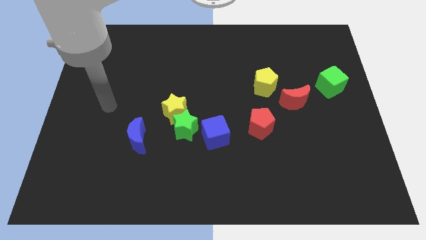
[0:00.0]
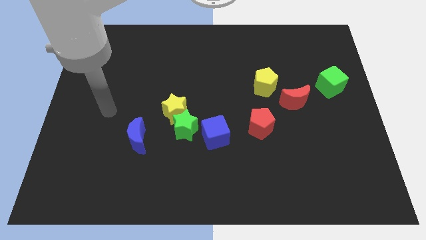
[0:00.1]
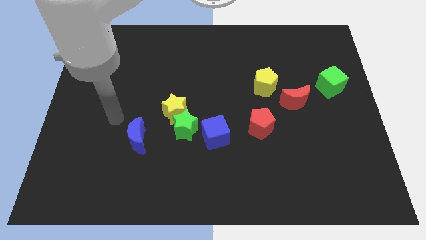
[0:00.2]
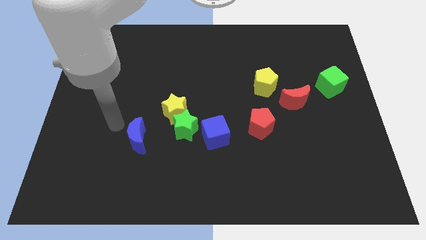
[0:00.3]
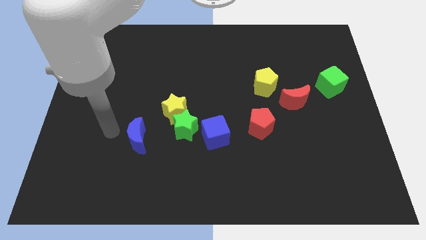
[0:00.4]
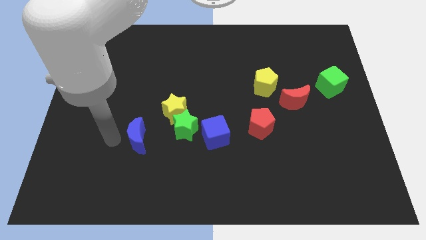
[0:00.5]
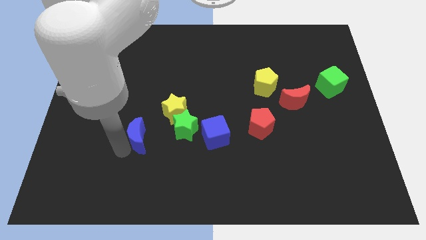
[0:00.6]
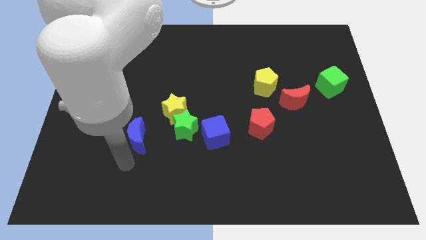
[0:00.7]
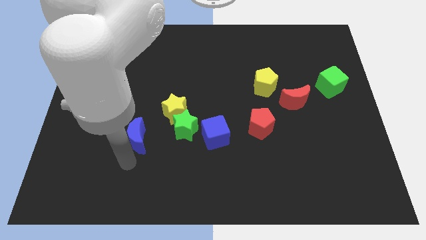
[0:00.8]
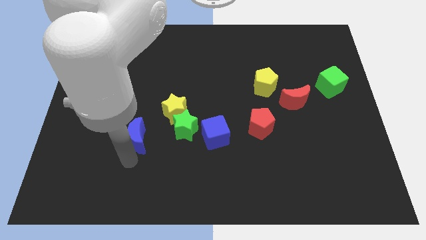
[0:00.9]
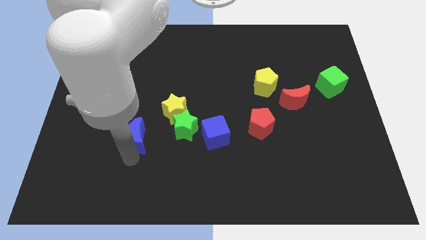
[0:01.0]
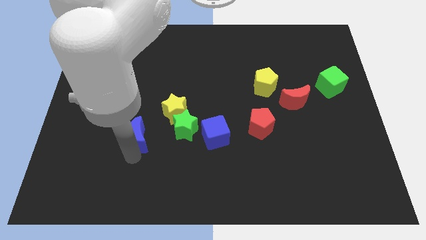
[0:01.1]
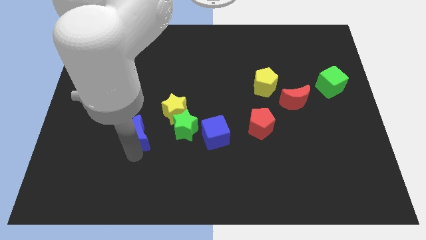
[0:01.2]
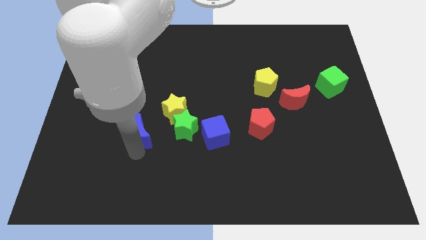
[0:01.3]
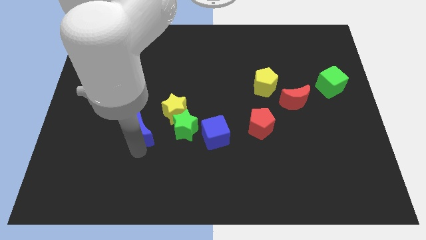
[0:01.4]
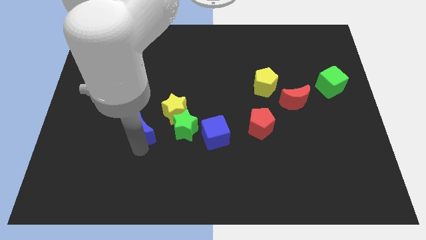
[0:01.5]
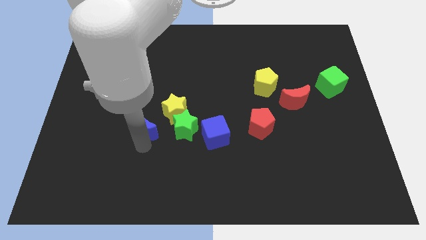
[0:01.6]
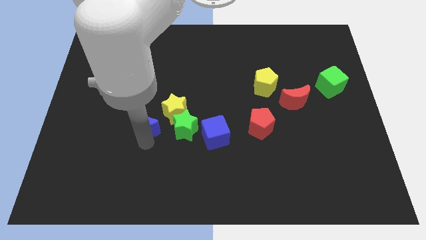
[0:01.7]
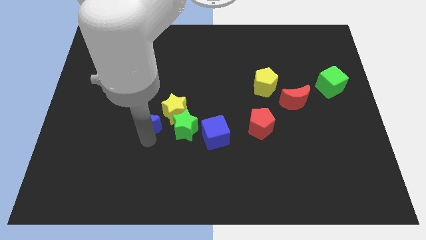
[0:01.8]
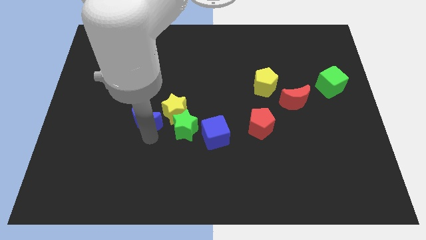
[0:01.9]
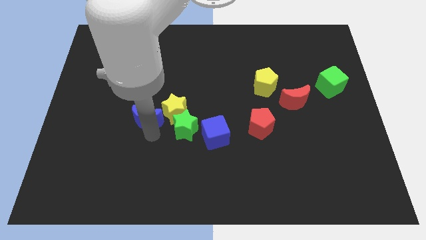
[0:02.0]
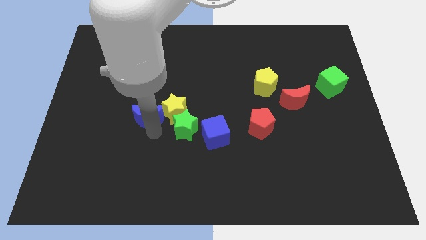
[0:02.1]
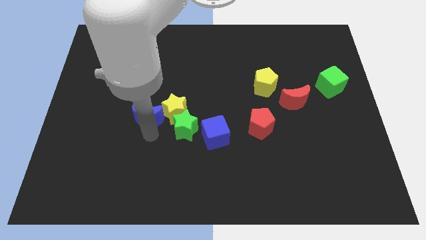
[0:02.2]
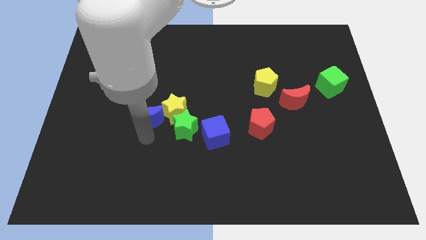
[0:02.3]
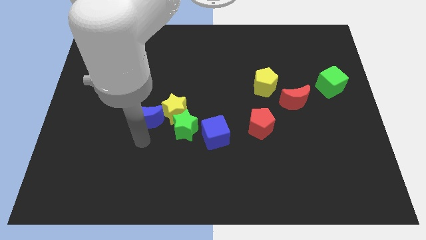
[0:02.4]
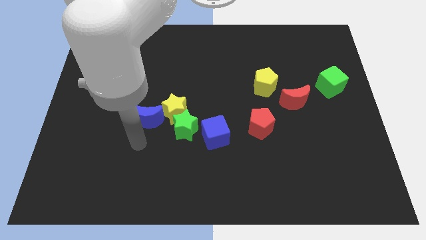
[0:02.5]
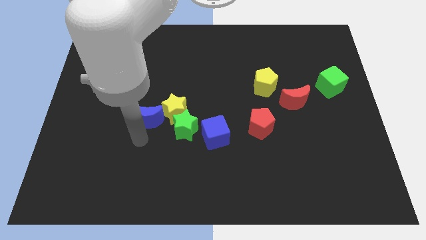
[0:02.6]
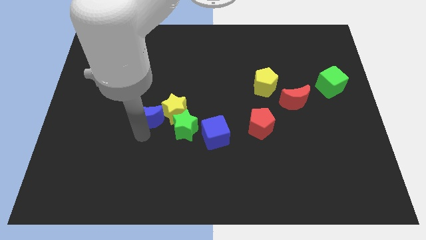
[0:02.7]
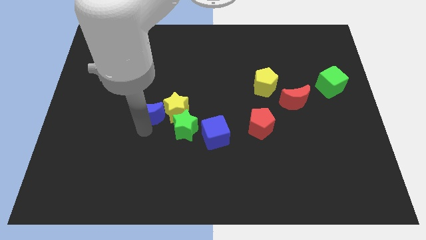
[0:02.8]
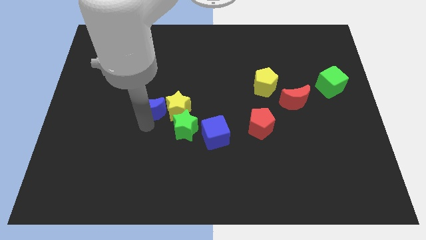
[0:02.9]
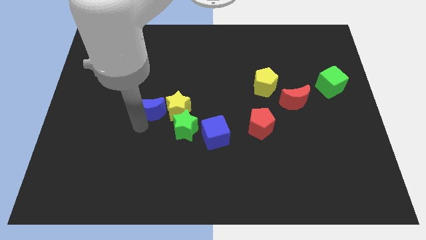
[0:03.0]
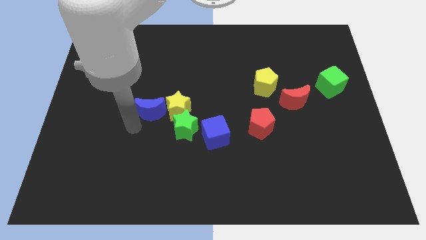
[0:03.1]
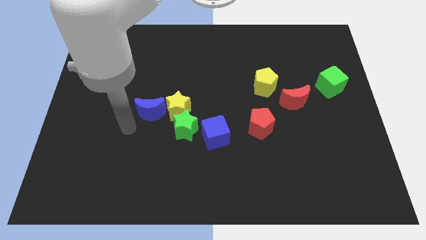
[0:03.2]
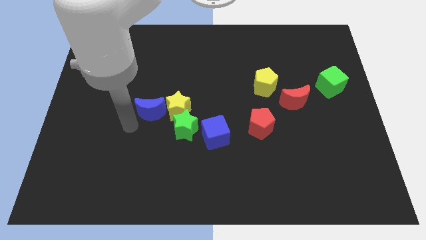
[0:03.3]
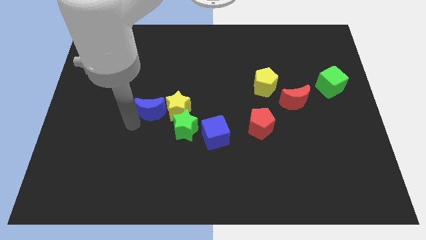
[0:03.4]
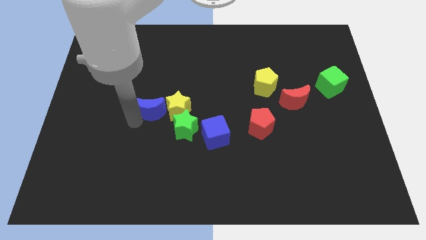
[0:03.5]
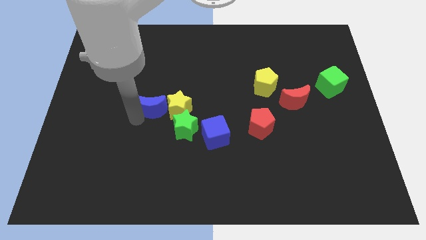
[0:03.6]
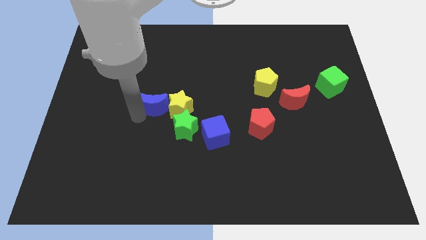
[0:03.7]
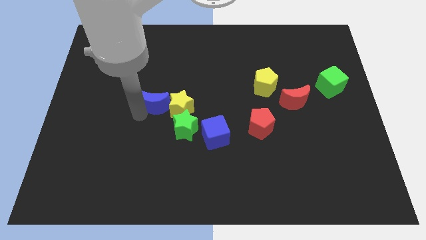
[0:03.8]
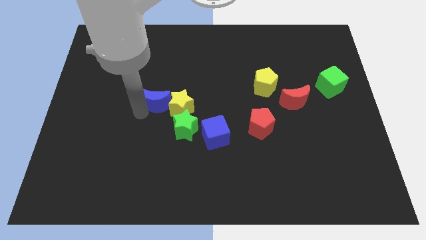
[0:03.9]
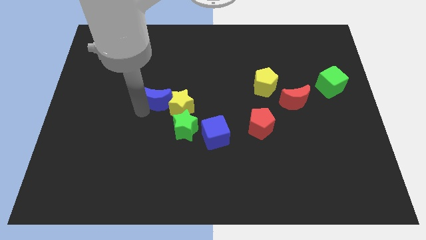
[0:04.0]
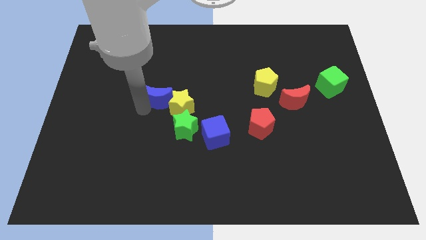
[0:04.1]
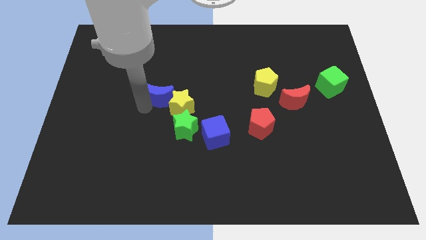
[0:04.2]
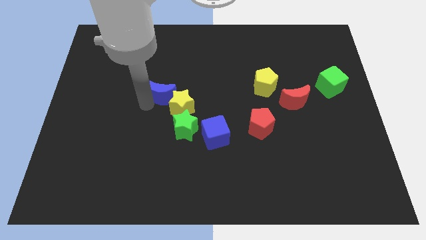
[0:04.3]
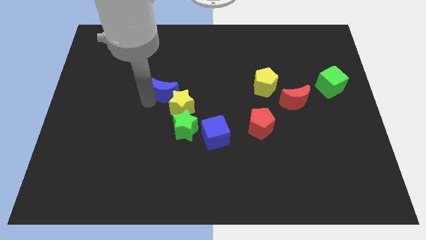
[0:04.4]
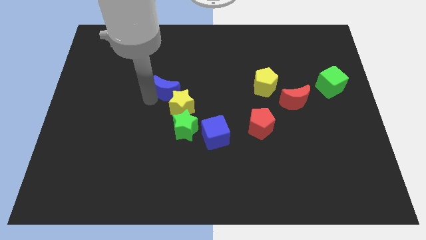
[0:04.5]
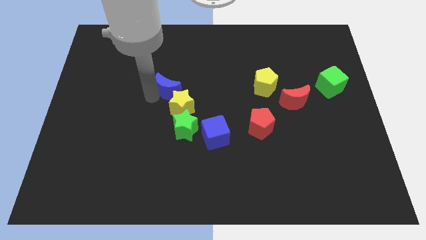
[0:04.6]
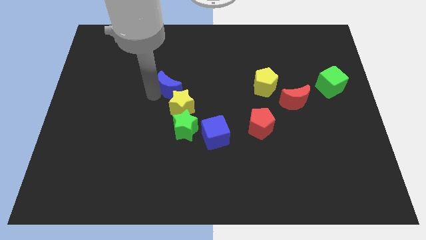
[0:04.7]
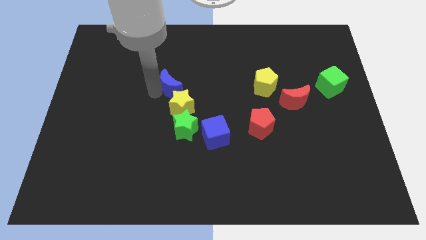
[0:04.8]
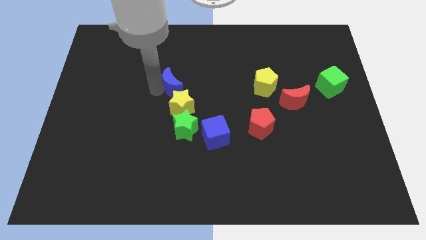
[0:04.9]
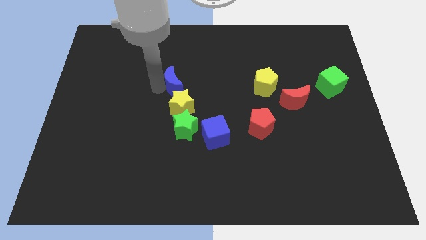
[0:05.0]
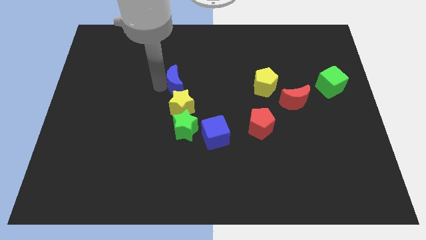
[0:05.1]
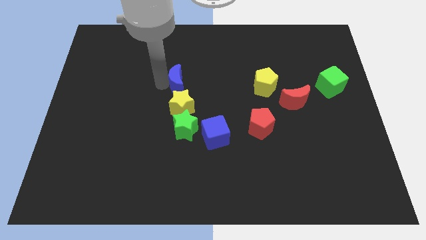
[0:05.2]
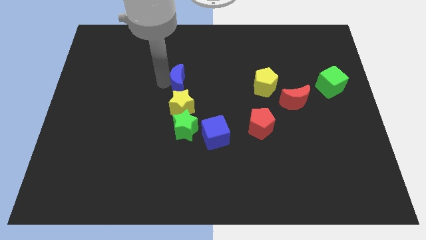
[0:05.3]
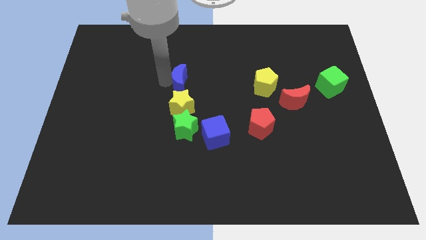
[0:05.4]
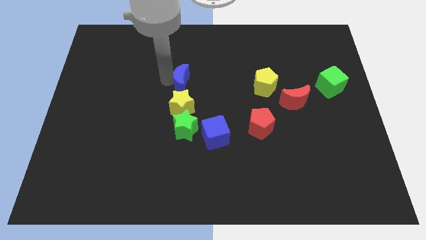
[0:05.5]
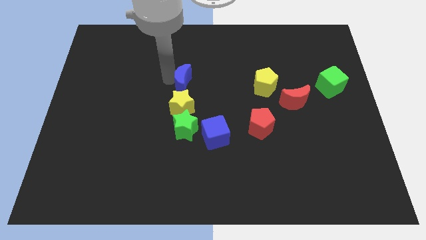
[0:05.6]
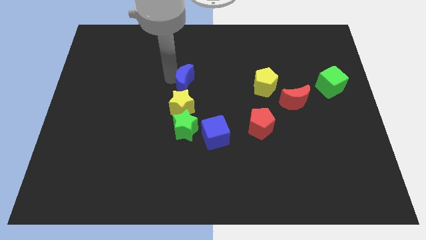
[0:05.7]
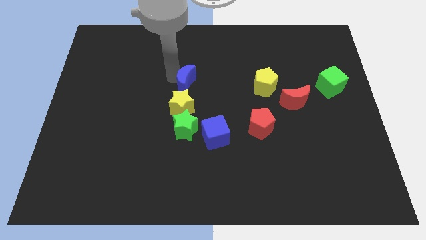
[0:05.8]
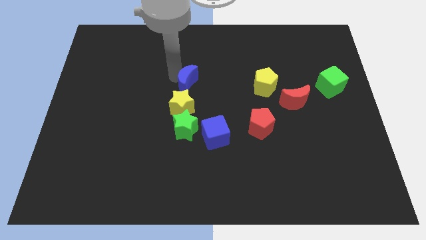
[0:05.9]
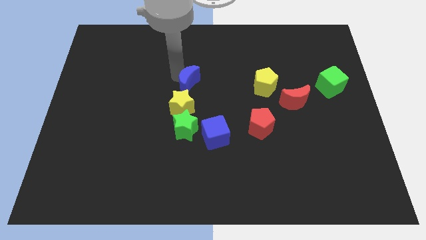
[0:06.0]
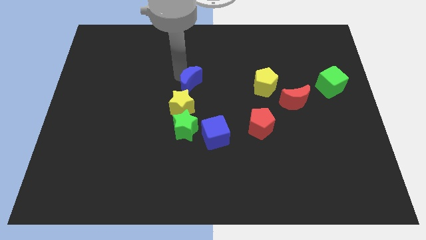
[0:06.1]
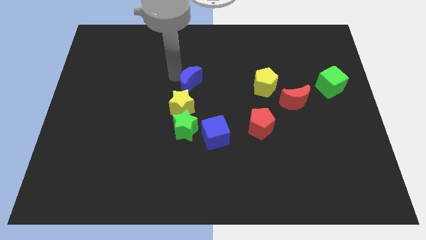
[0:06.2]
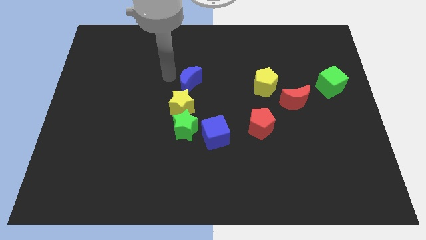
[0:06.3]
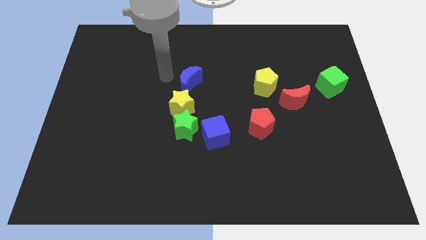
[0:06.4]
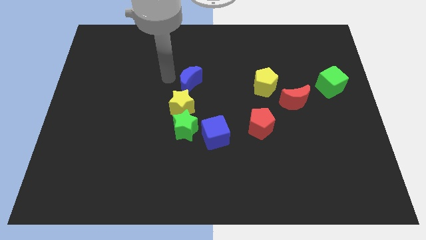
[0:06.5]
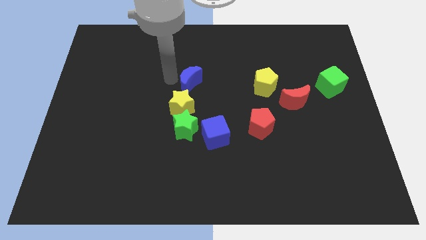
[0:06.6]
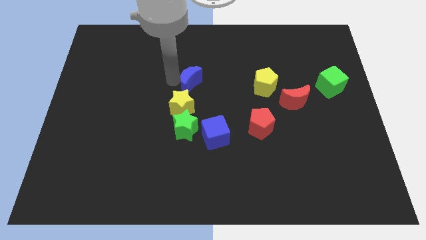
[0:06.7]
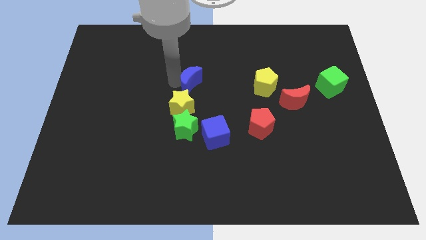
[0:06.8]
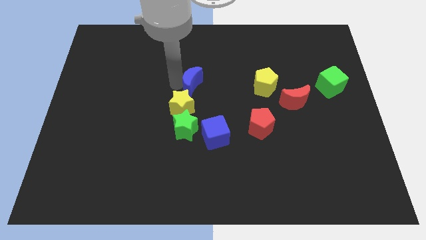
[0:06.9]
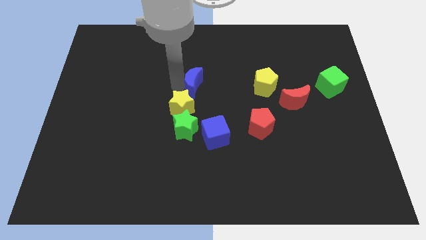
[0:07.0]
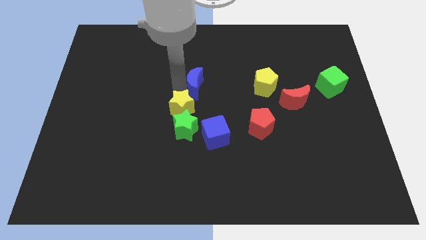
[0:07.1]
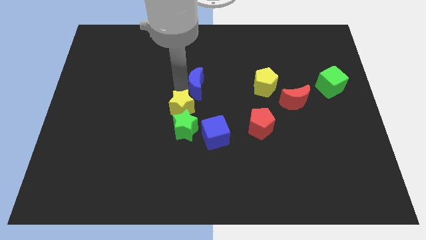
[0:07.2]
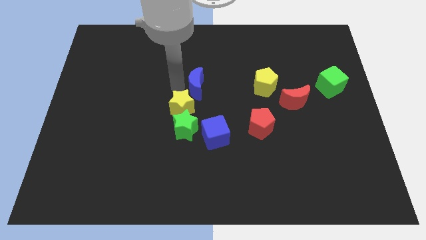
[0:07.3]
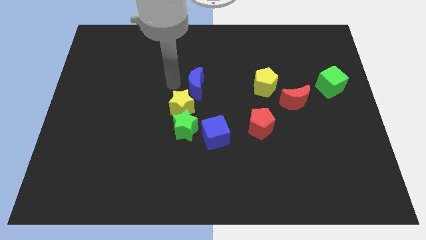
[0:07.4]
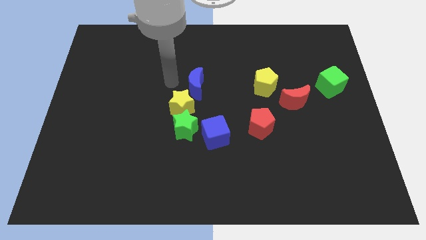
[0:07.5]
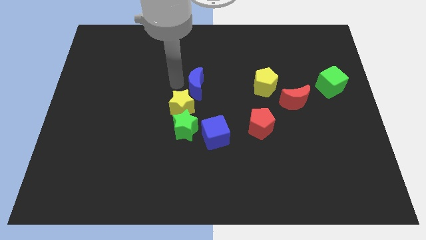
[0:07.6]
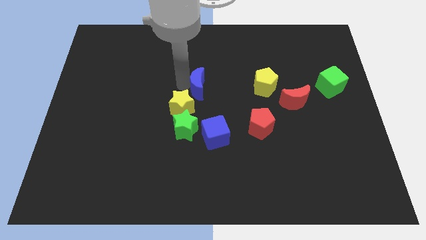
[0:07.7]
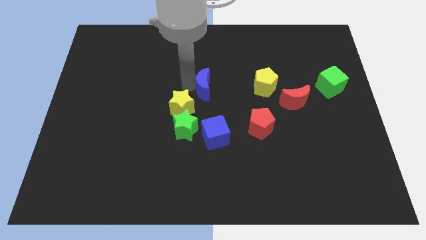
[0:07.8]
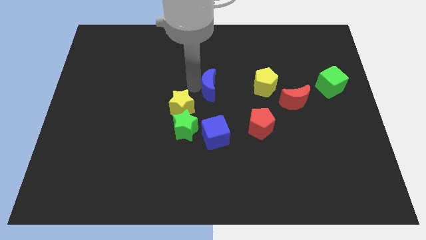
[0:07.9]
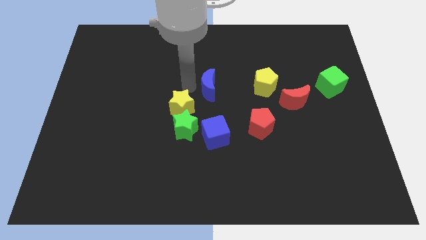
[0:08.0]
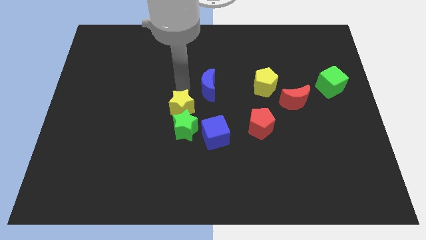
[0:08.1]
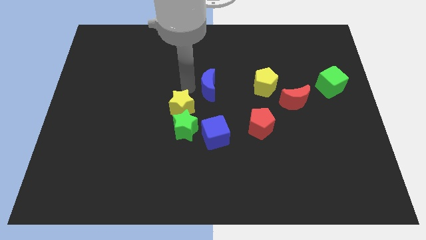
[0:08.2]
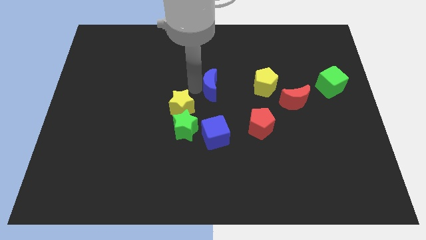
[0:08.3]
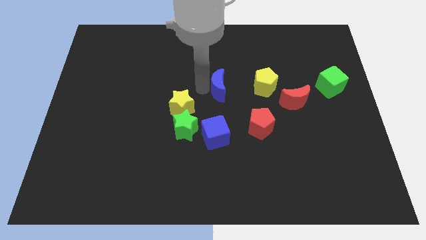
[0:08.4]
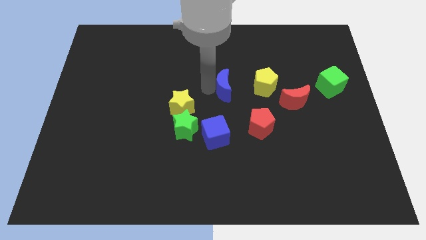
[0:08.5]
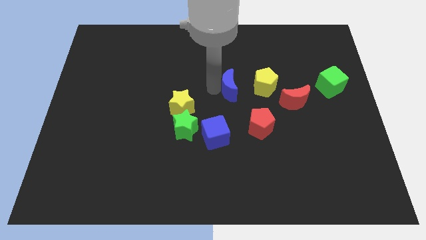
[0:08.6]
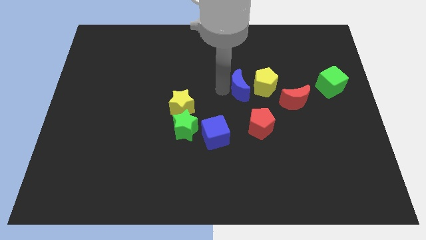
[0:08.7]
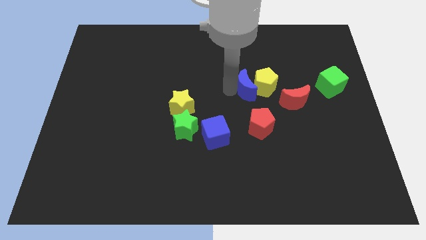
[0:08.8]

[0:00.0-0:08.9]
move the blue moon to the yellow pentagon
